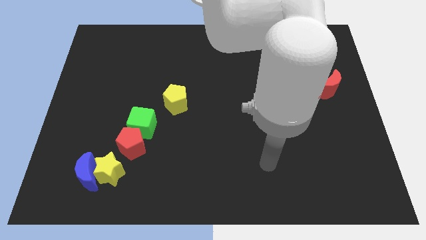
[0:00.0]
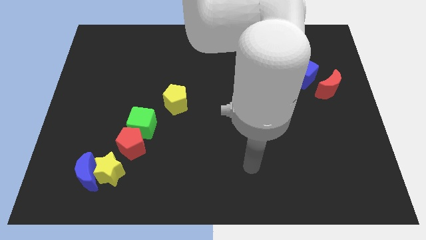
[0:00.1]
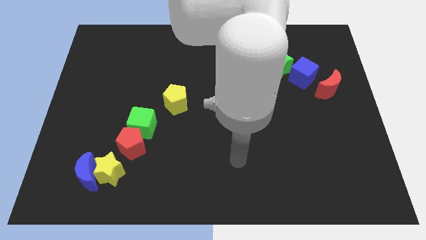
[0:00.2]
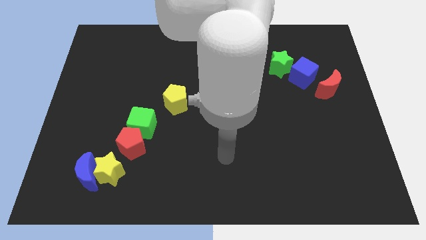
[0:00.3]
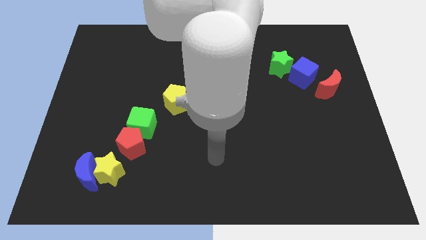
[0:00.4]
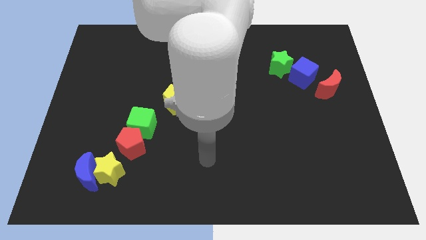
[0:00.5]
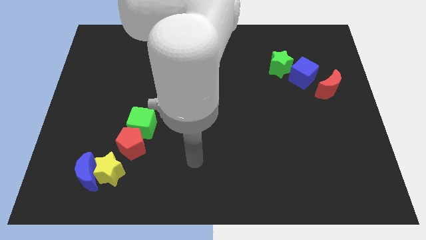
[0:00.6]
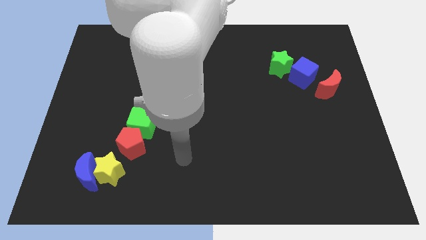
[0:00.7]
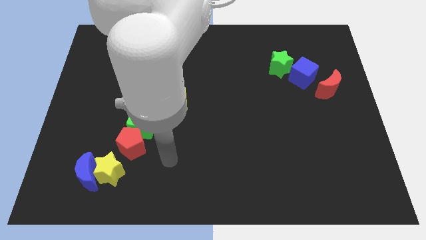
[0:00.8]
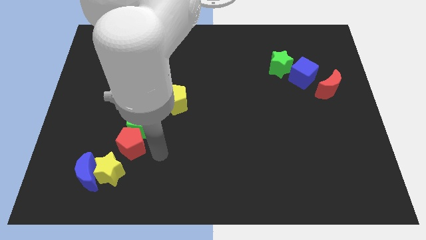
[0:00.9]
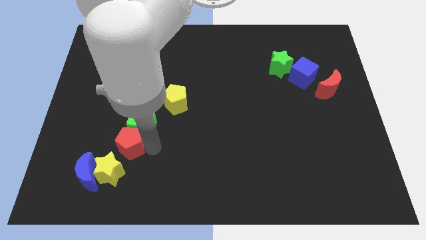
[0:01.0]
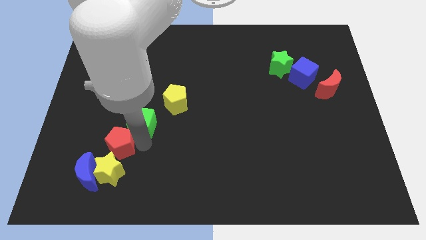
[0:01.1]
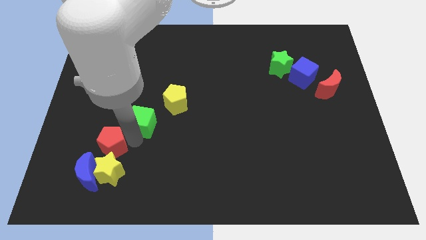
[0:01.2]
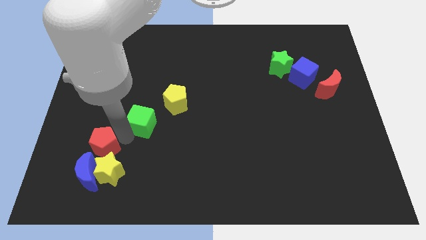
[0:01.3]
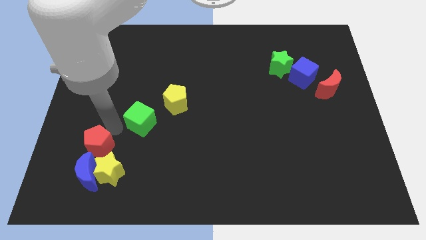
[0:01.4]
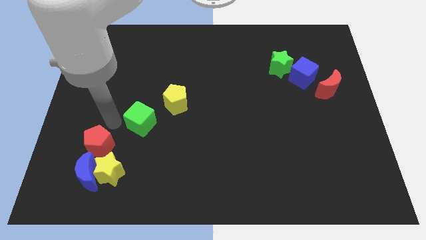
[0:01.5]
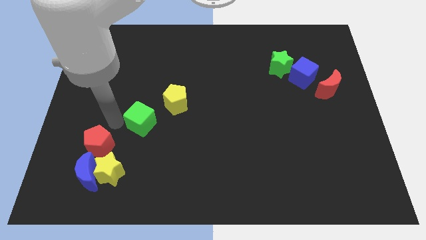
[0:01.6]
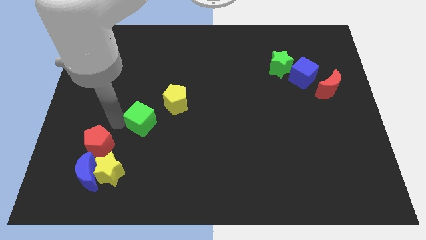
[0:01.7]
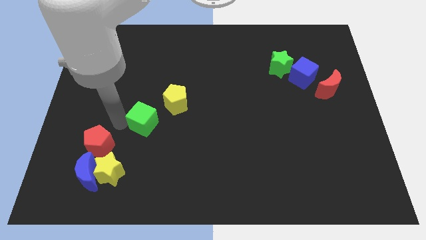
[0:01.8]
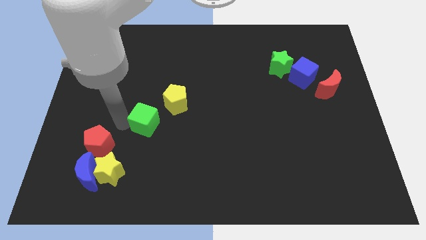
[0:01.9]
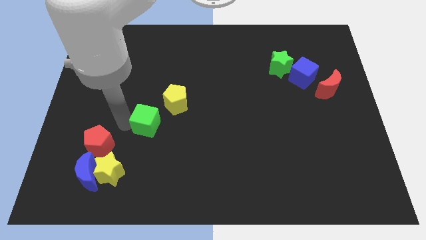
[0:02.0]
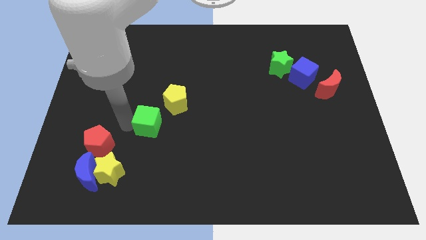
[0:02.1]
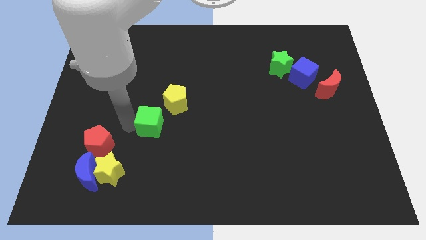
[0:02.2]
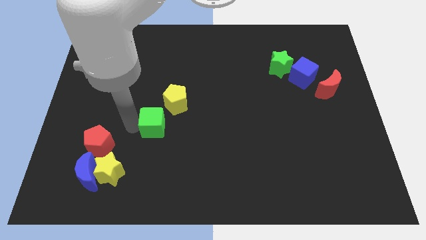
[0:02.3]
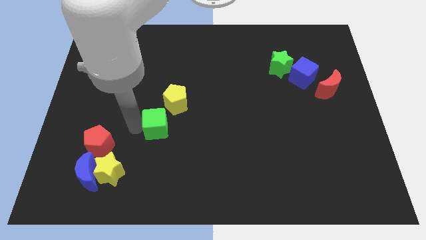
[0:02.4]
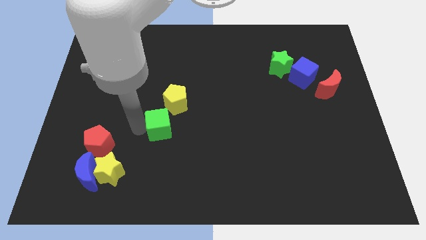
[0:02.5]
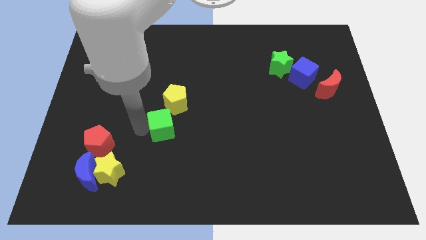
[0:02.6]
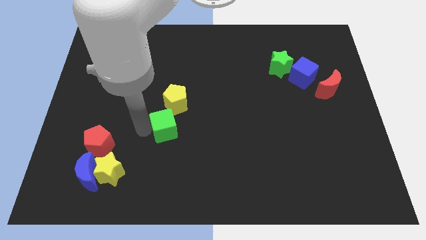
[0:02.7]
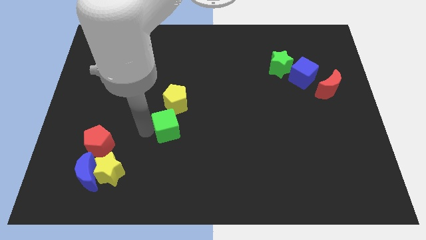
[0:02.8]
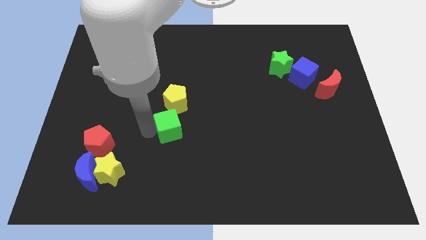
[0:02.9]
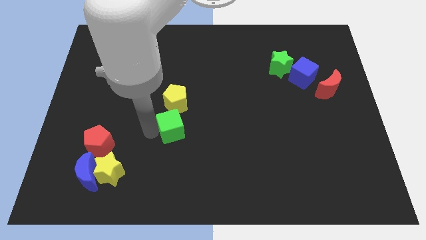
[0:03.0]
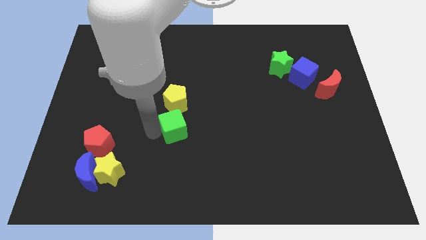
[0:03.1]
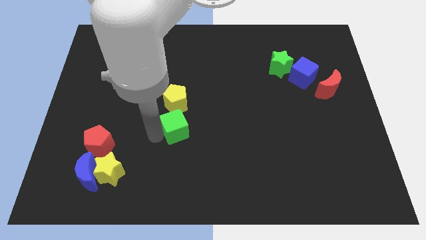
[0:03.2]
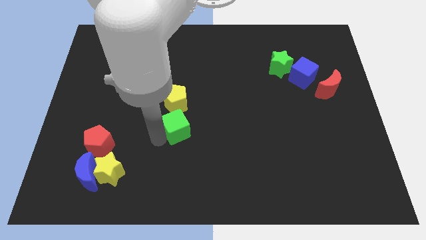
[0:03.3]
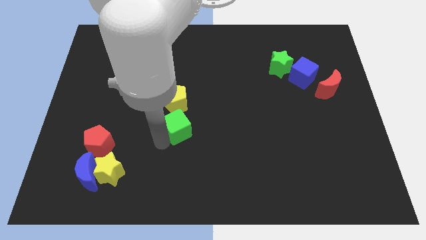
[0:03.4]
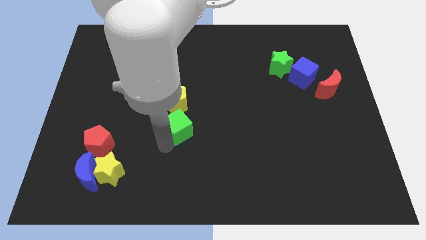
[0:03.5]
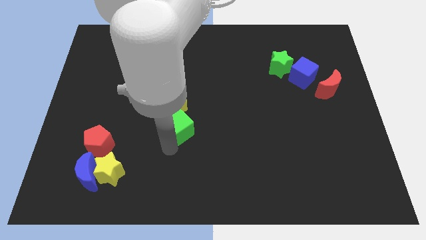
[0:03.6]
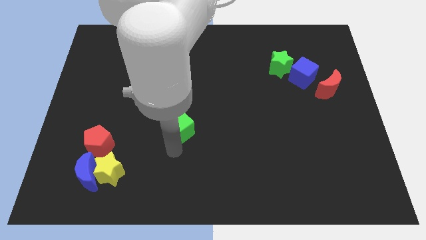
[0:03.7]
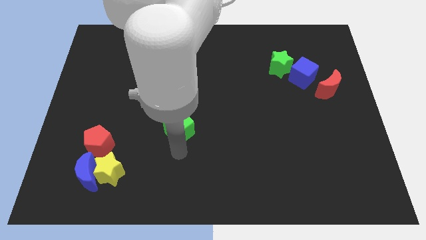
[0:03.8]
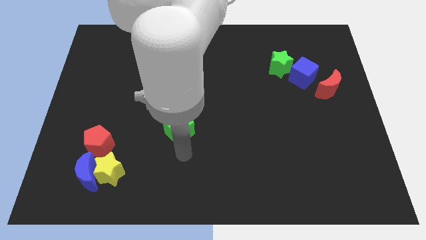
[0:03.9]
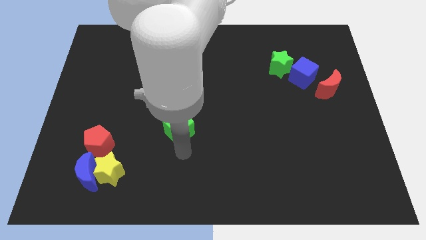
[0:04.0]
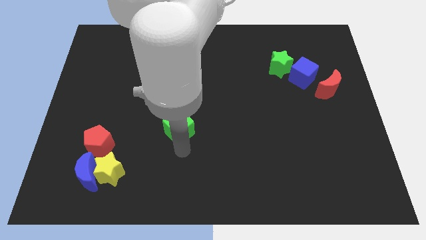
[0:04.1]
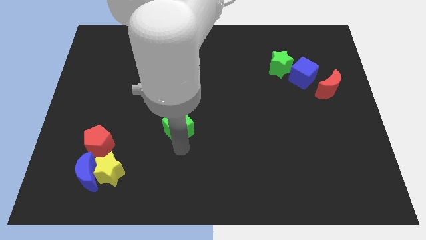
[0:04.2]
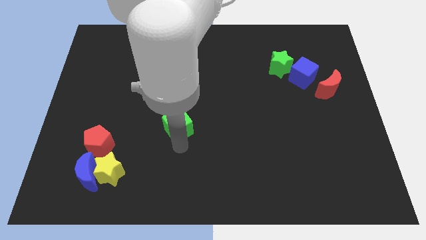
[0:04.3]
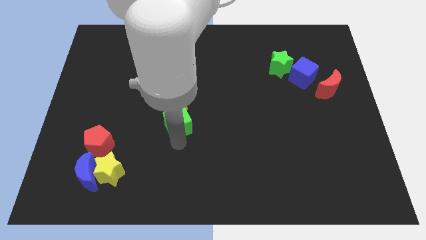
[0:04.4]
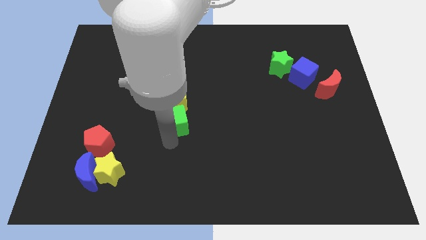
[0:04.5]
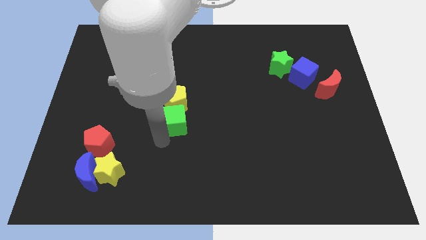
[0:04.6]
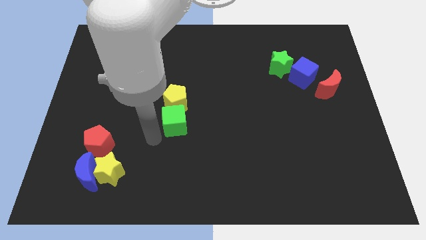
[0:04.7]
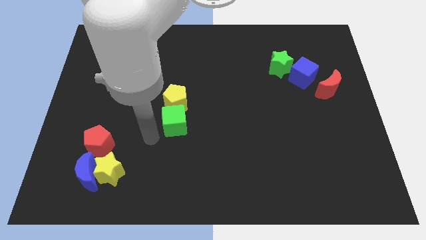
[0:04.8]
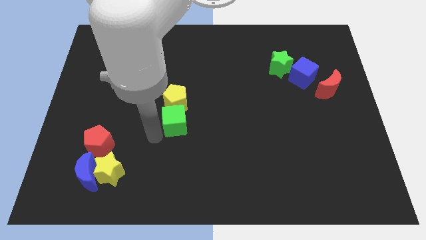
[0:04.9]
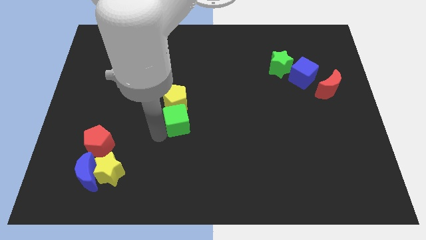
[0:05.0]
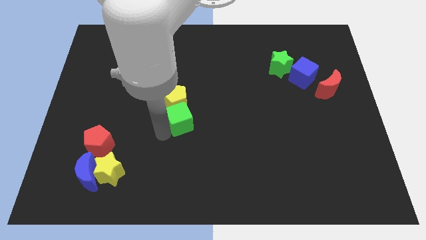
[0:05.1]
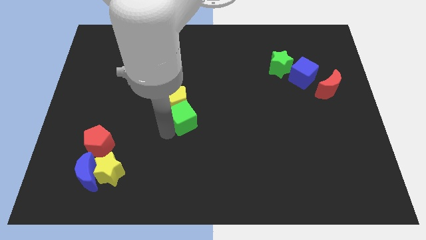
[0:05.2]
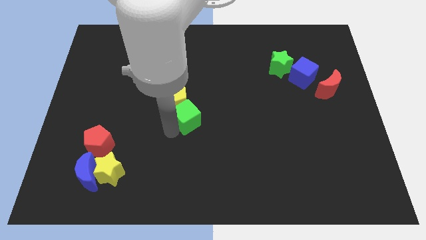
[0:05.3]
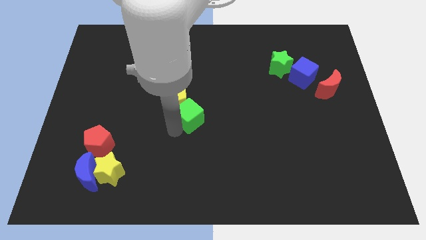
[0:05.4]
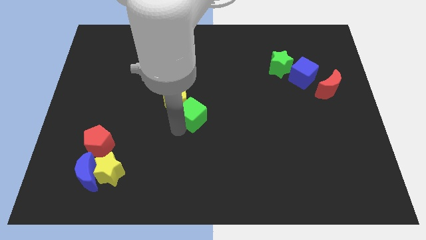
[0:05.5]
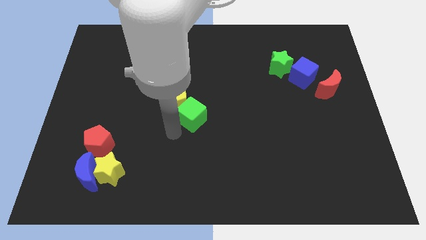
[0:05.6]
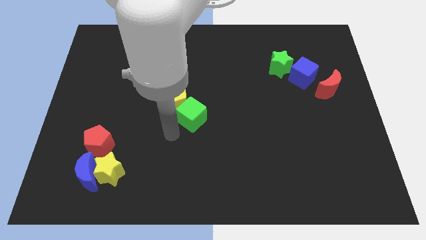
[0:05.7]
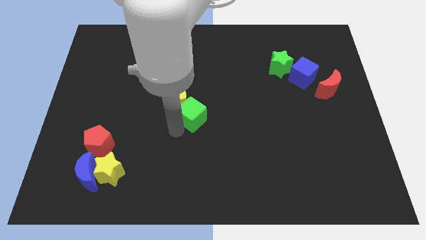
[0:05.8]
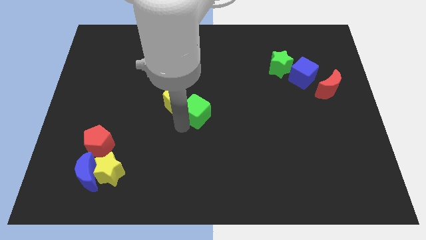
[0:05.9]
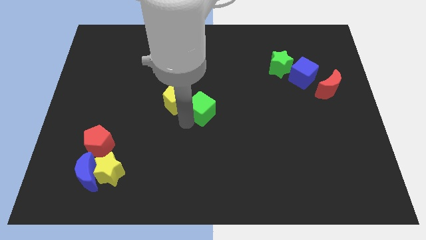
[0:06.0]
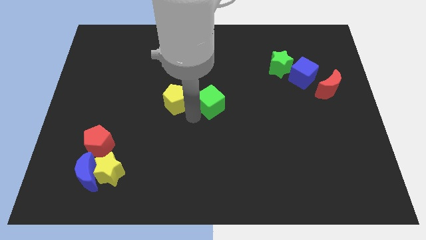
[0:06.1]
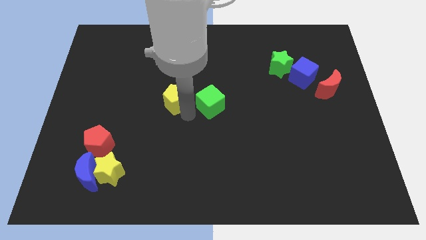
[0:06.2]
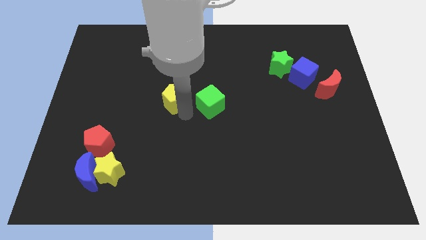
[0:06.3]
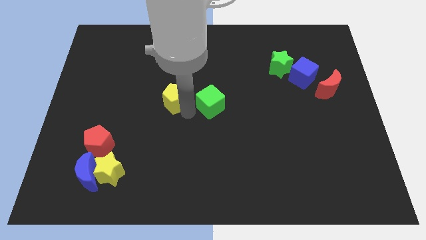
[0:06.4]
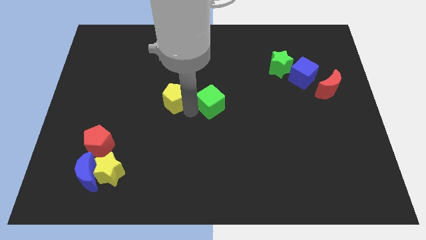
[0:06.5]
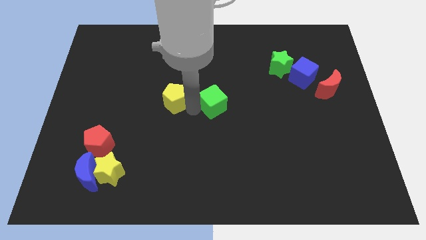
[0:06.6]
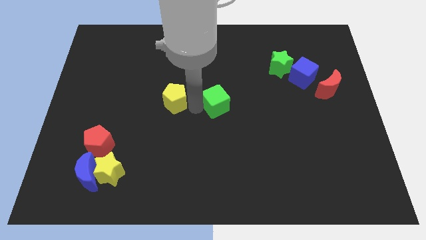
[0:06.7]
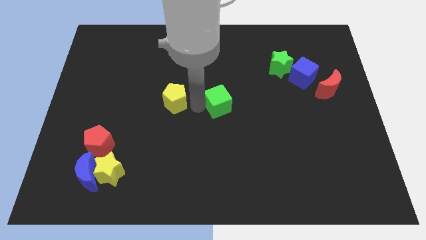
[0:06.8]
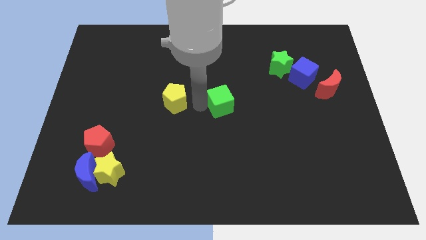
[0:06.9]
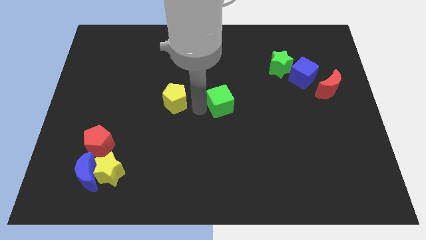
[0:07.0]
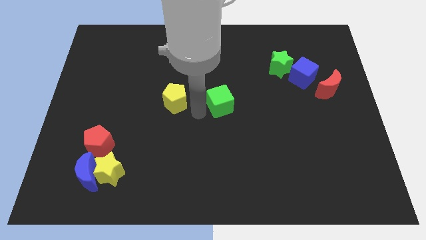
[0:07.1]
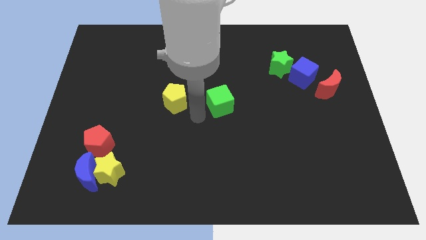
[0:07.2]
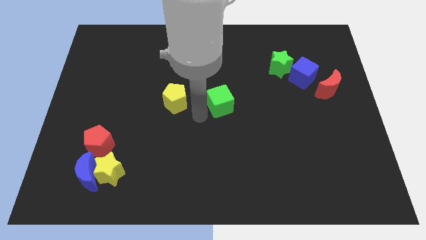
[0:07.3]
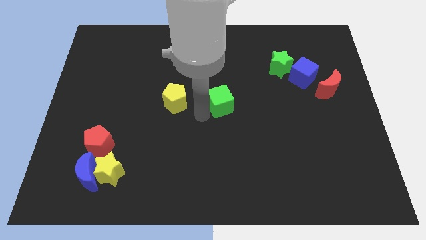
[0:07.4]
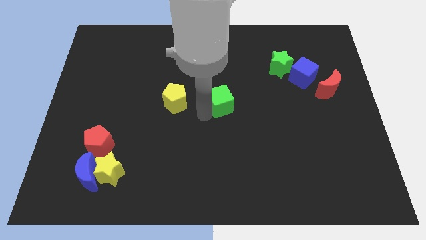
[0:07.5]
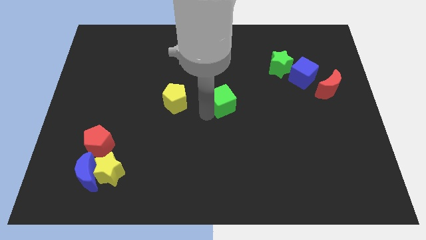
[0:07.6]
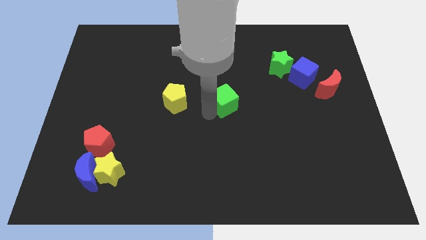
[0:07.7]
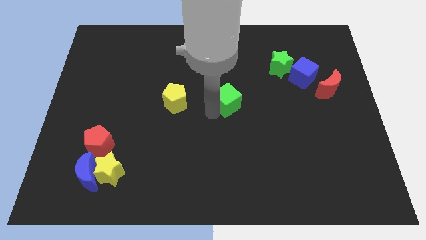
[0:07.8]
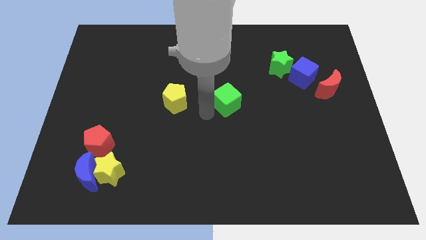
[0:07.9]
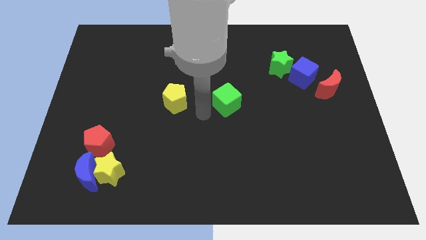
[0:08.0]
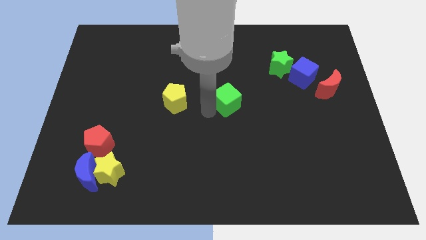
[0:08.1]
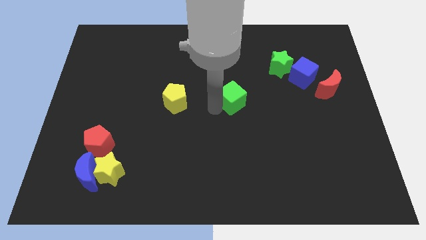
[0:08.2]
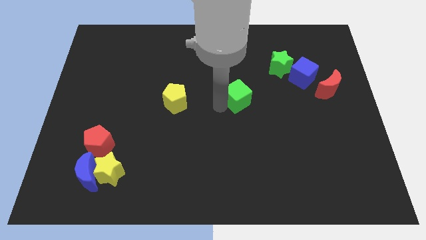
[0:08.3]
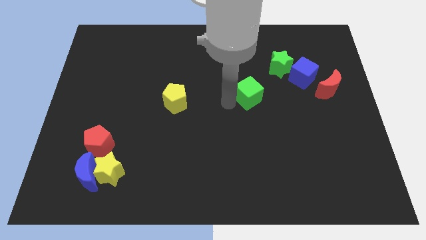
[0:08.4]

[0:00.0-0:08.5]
slide the green cube diagonally down and to the left of the green star

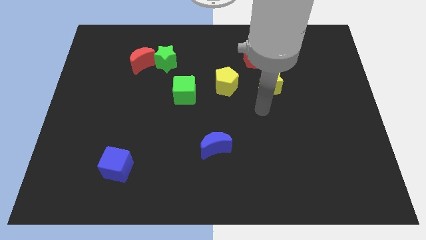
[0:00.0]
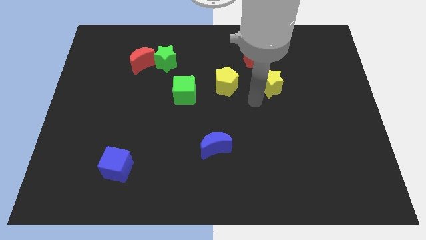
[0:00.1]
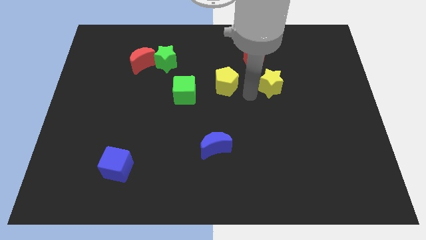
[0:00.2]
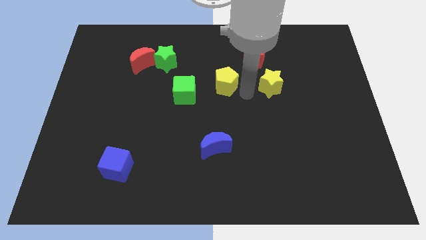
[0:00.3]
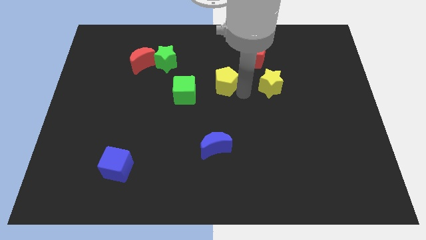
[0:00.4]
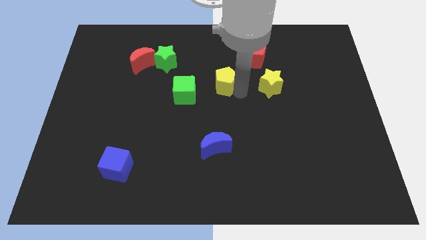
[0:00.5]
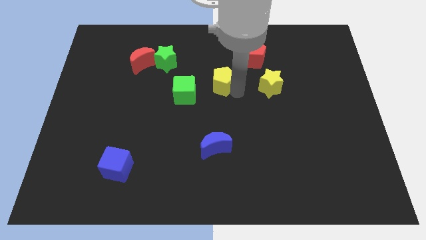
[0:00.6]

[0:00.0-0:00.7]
push the yellow pentagon to the top right side of the green cube
